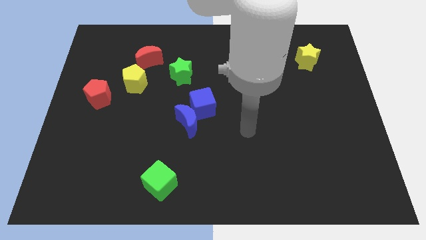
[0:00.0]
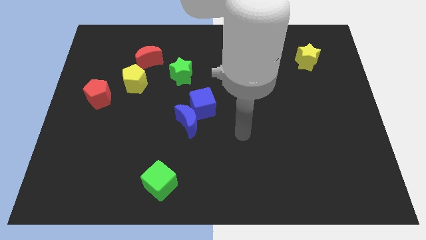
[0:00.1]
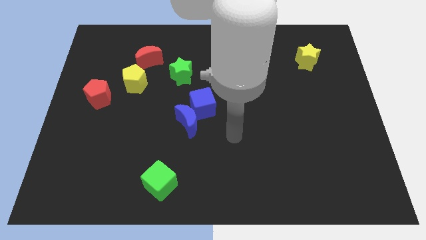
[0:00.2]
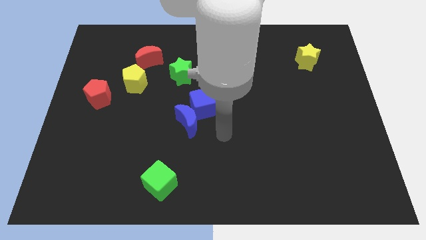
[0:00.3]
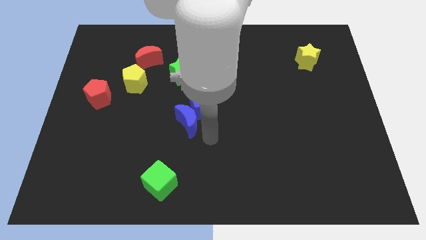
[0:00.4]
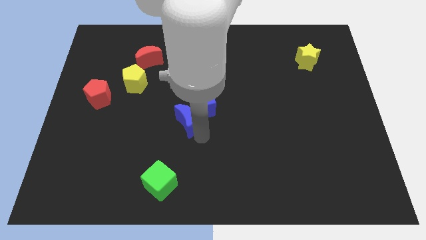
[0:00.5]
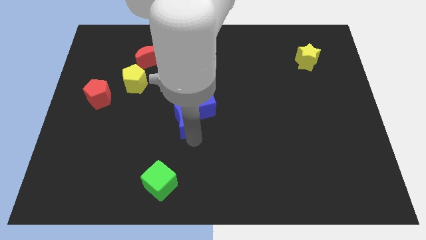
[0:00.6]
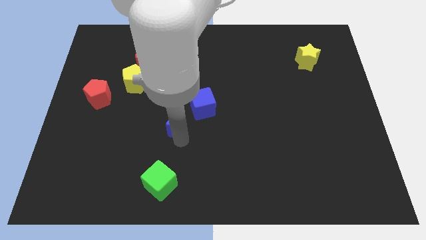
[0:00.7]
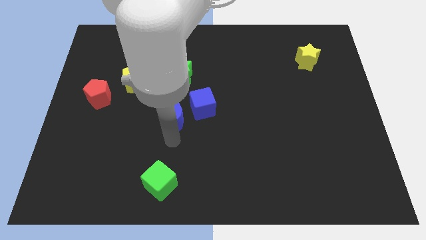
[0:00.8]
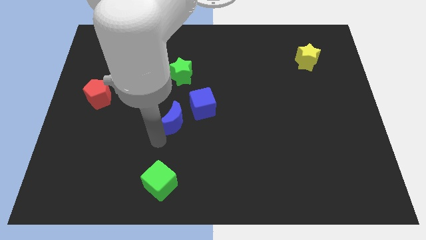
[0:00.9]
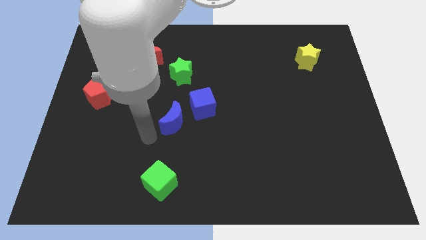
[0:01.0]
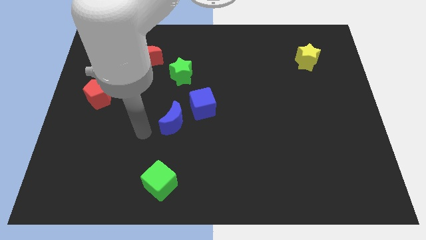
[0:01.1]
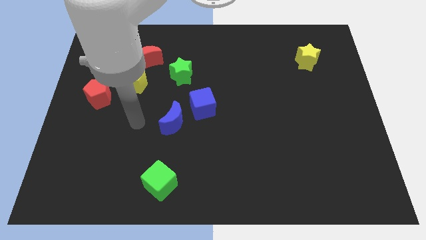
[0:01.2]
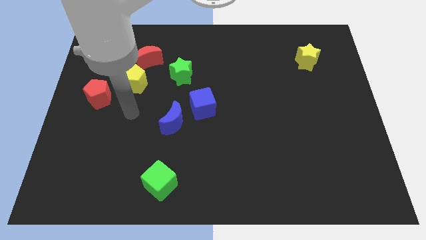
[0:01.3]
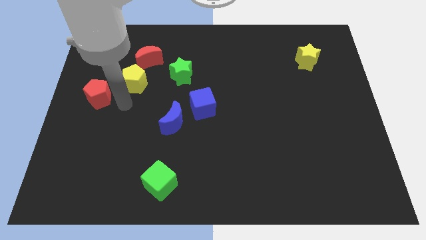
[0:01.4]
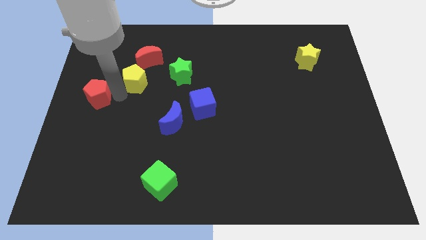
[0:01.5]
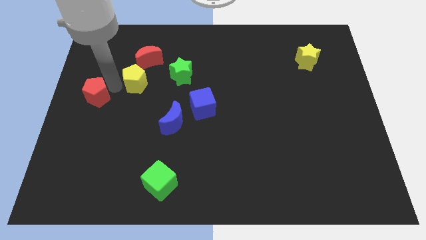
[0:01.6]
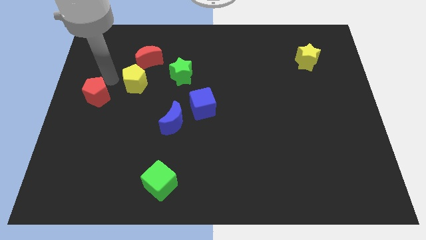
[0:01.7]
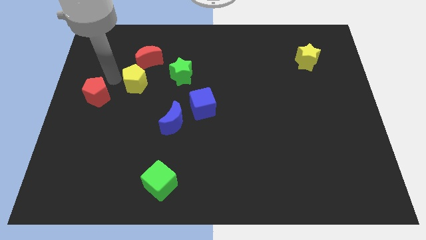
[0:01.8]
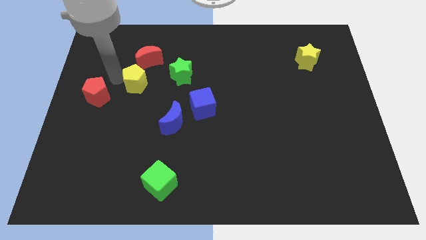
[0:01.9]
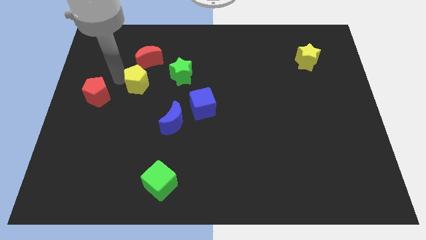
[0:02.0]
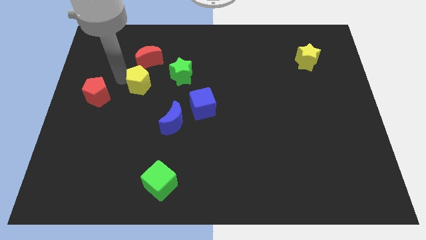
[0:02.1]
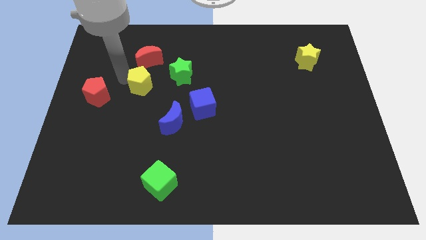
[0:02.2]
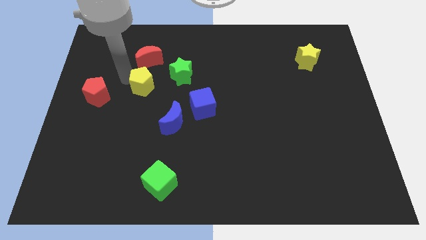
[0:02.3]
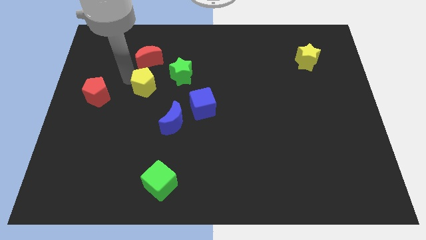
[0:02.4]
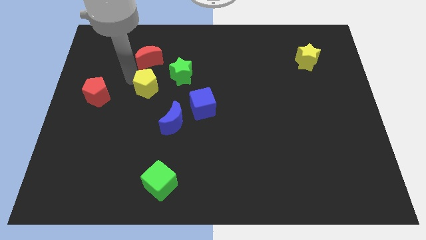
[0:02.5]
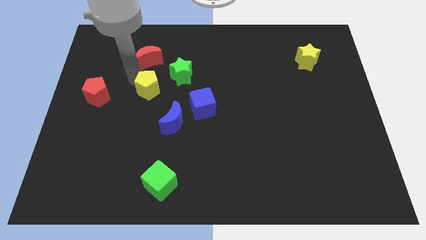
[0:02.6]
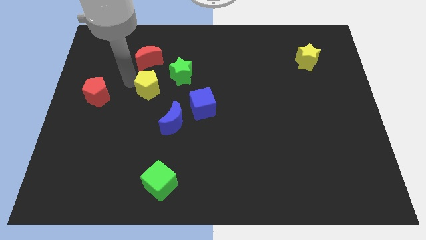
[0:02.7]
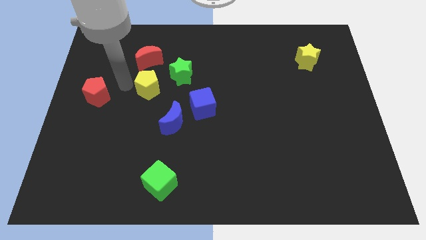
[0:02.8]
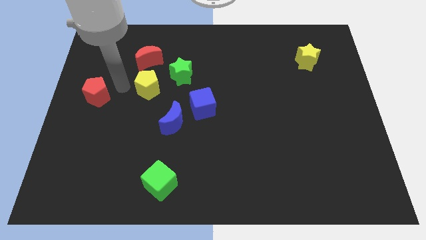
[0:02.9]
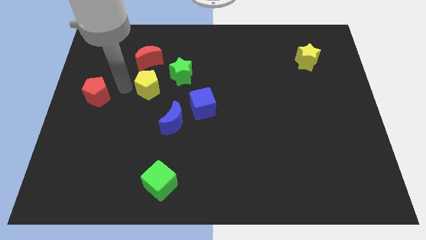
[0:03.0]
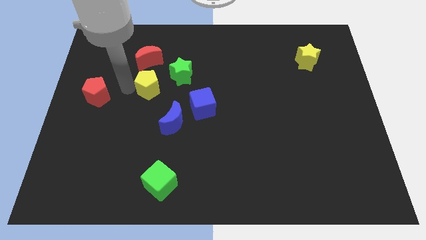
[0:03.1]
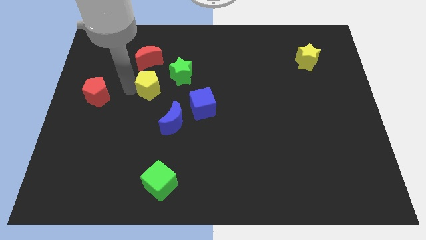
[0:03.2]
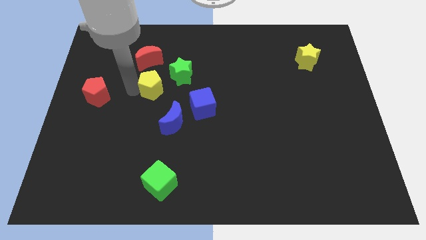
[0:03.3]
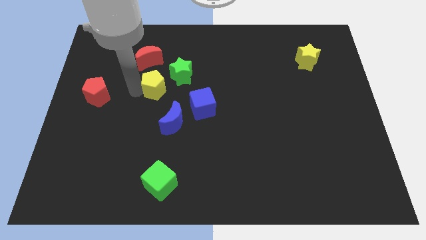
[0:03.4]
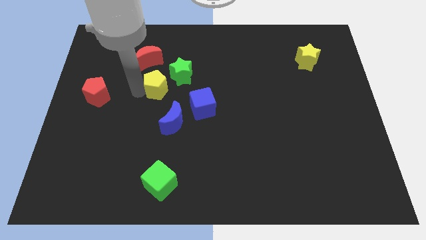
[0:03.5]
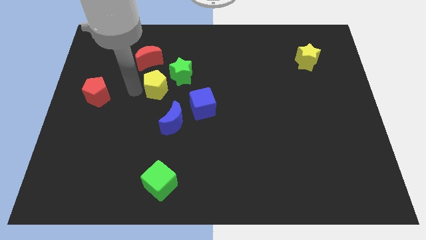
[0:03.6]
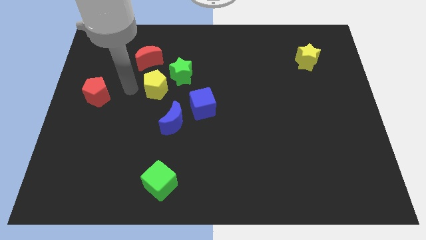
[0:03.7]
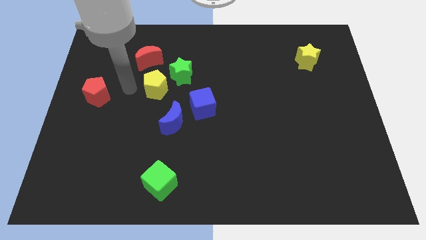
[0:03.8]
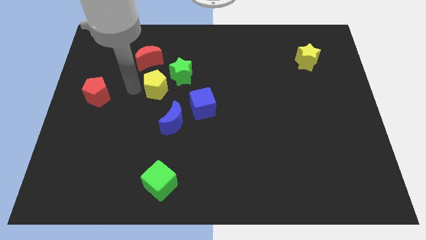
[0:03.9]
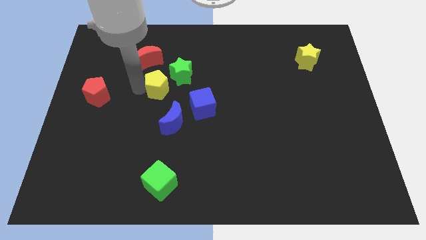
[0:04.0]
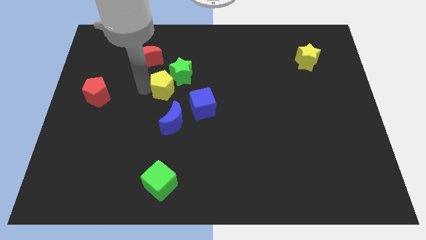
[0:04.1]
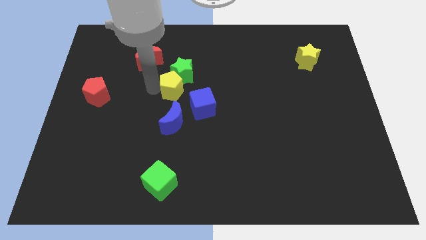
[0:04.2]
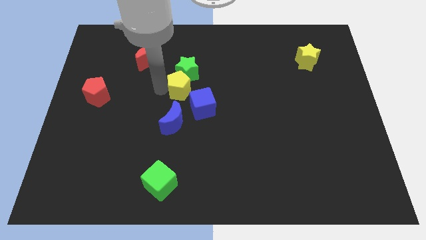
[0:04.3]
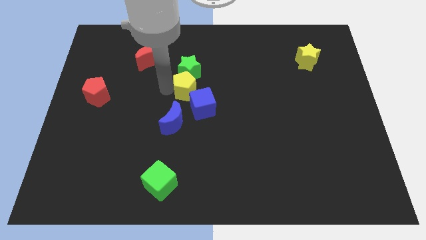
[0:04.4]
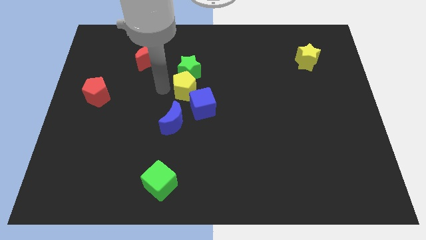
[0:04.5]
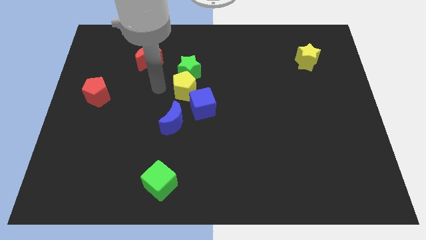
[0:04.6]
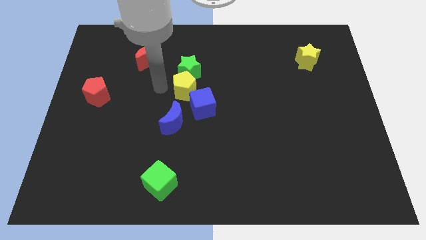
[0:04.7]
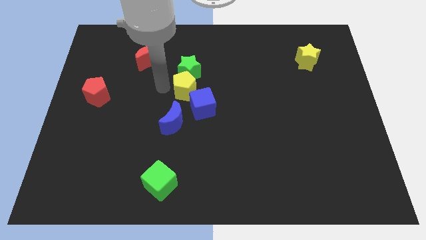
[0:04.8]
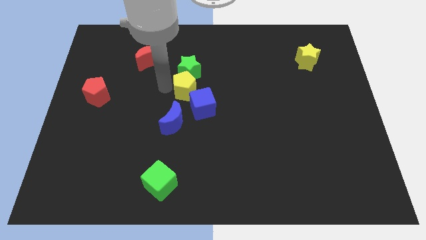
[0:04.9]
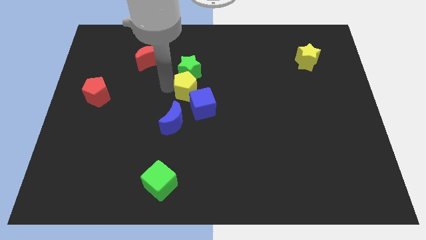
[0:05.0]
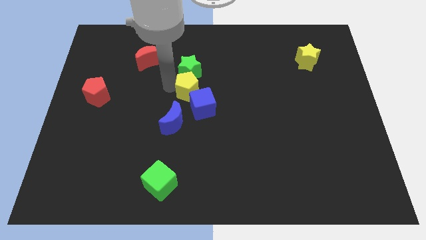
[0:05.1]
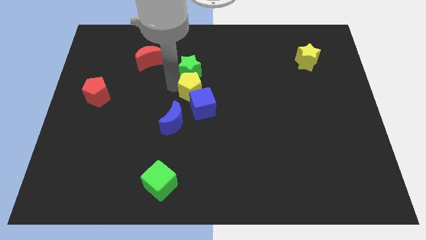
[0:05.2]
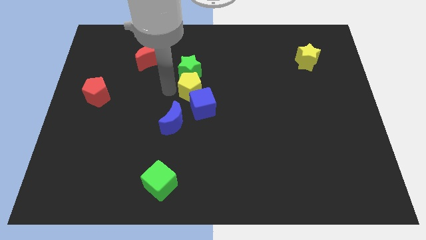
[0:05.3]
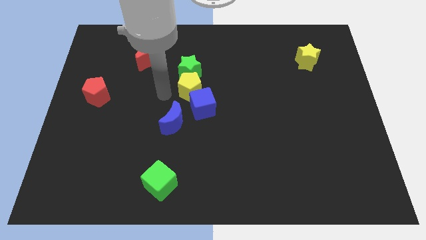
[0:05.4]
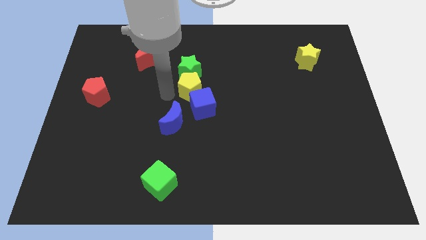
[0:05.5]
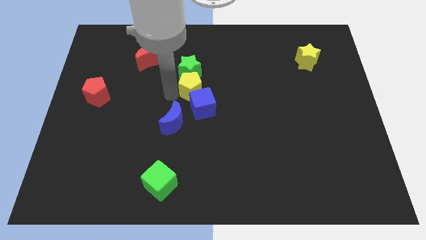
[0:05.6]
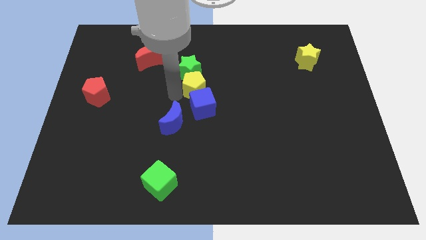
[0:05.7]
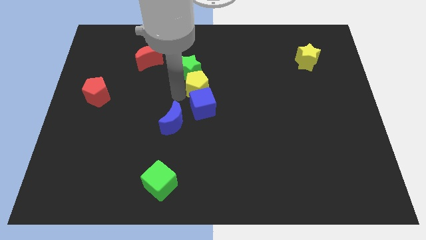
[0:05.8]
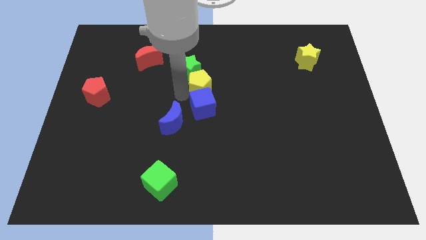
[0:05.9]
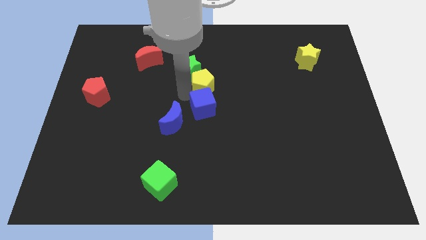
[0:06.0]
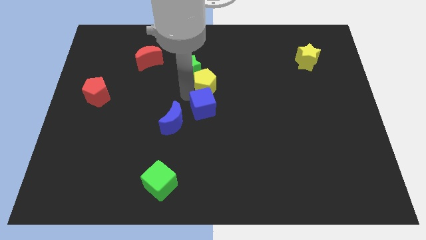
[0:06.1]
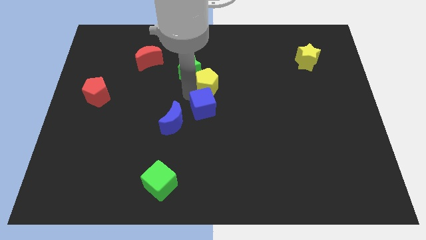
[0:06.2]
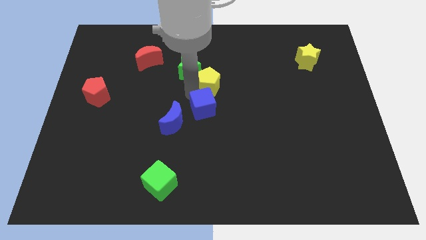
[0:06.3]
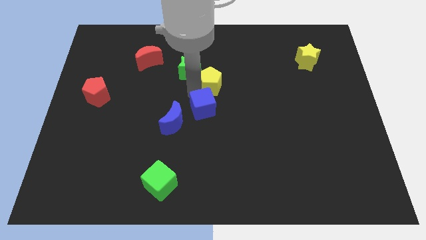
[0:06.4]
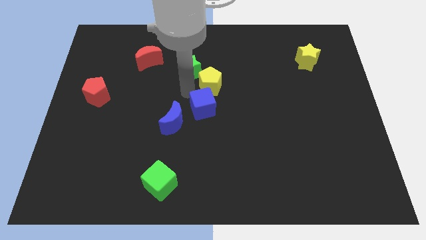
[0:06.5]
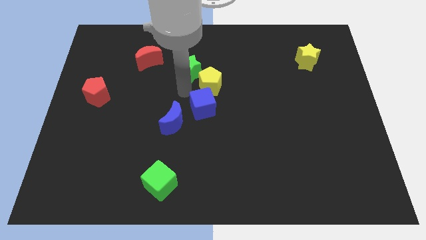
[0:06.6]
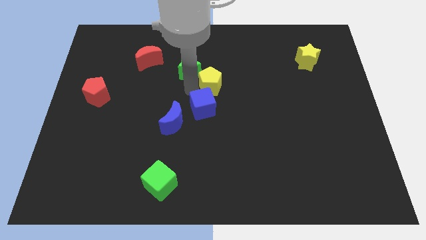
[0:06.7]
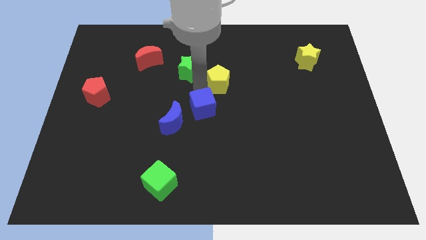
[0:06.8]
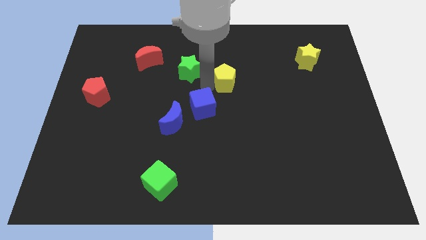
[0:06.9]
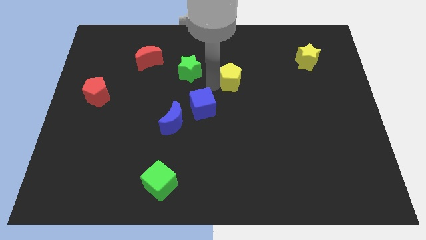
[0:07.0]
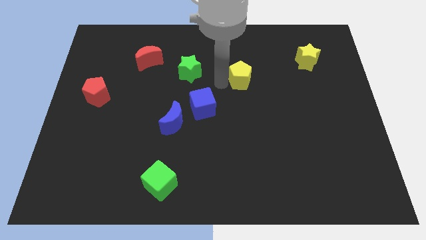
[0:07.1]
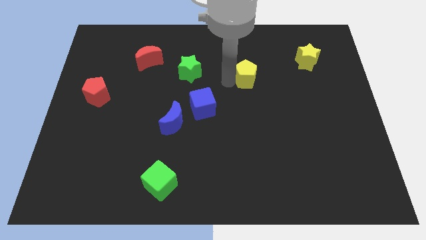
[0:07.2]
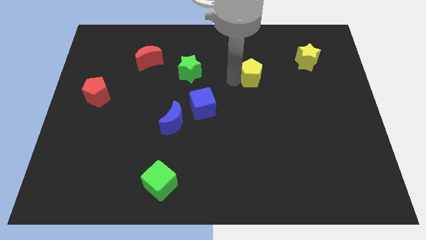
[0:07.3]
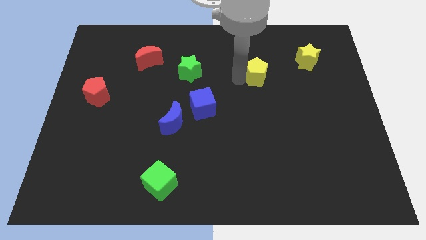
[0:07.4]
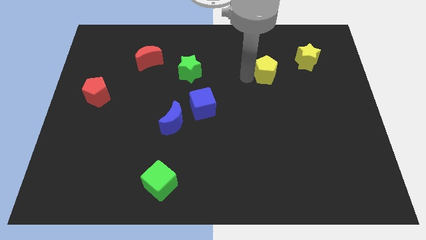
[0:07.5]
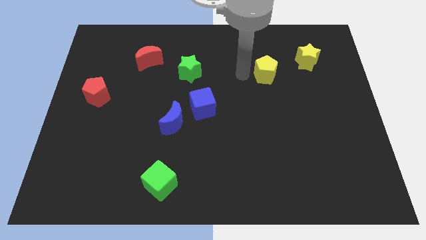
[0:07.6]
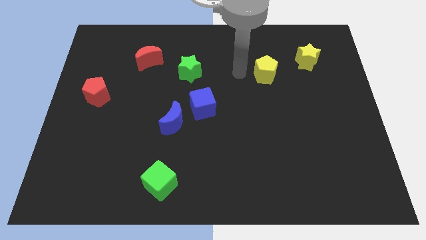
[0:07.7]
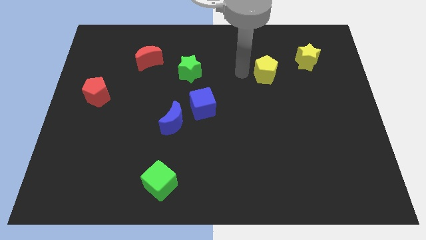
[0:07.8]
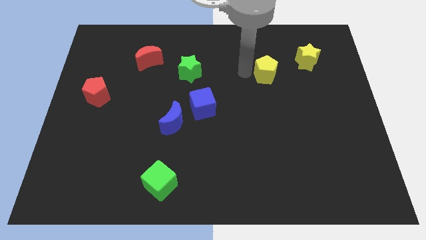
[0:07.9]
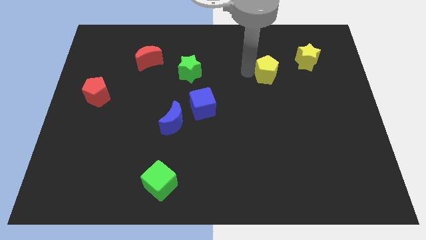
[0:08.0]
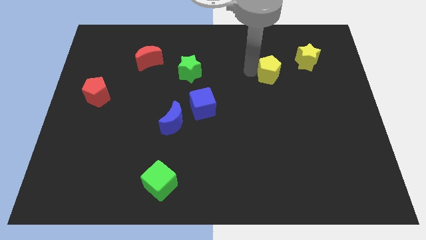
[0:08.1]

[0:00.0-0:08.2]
move the yellow pentagon diagonally down and to the left of the yellow star
